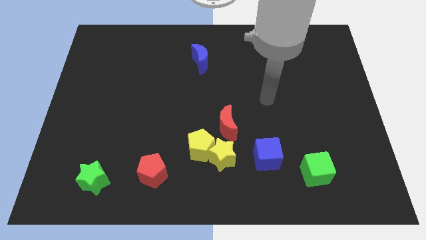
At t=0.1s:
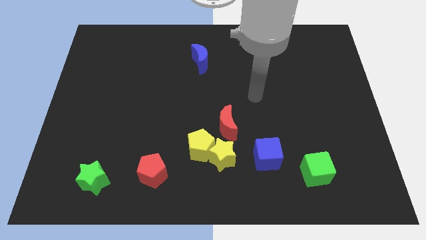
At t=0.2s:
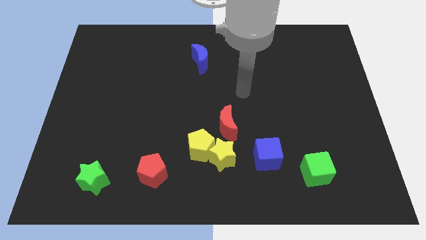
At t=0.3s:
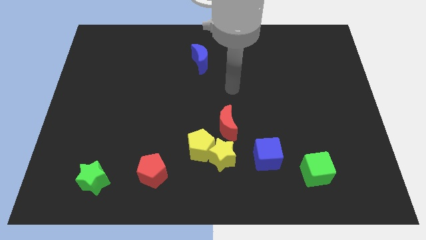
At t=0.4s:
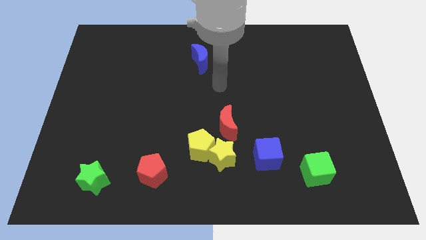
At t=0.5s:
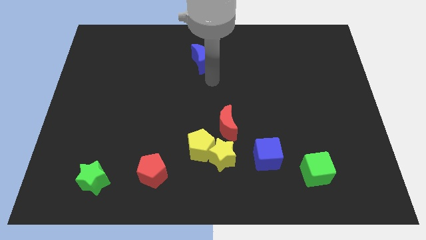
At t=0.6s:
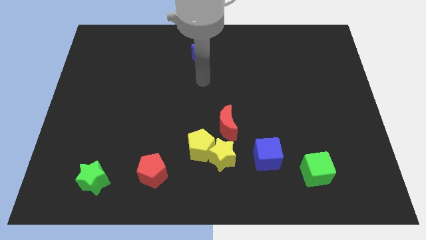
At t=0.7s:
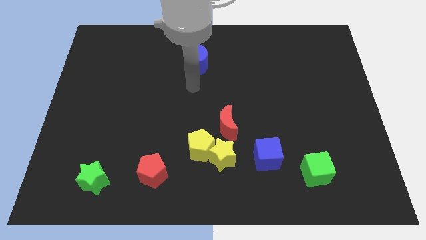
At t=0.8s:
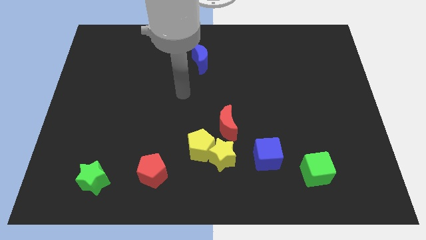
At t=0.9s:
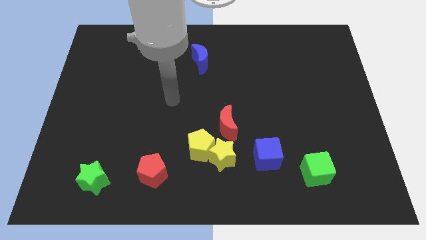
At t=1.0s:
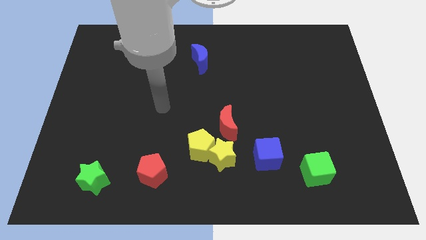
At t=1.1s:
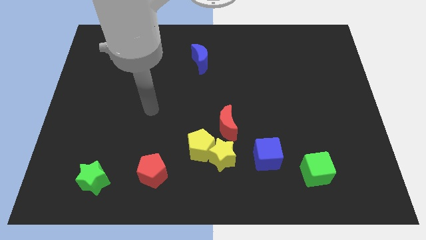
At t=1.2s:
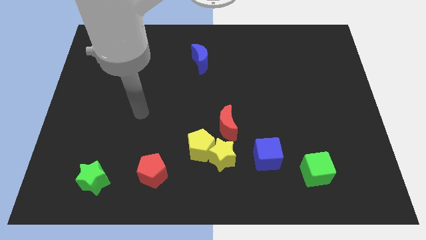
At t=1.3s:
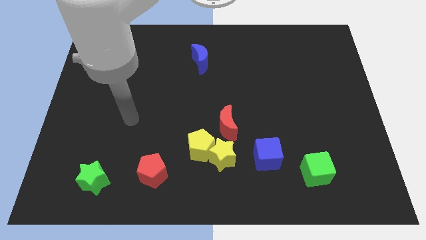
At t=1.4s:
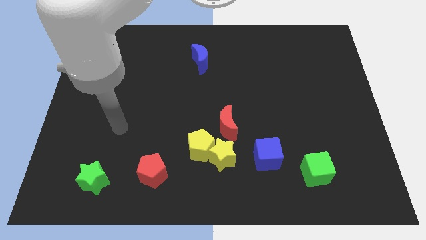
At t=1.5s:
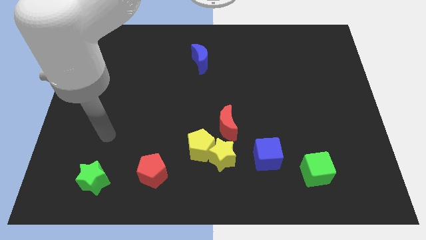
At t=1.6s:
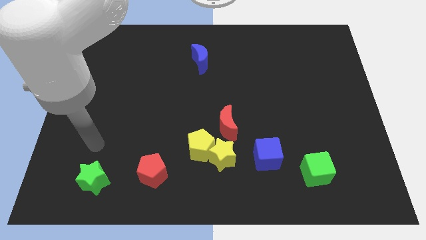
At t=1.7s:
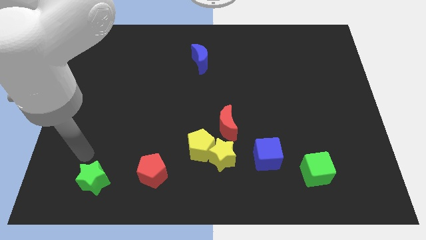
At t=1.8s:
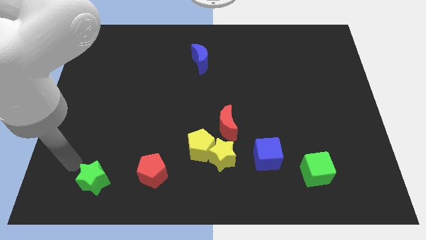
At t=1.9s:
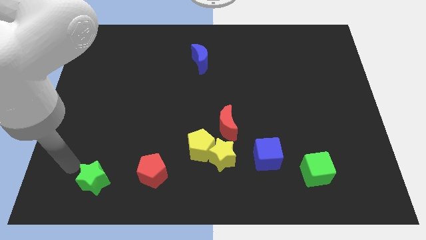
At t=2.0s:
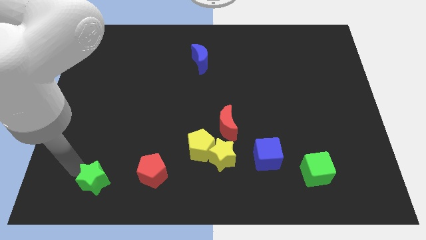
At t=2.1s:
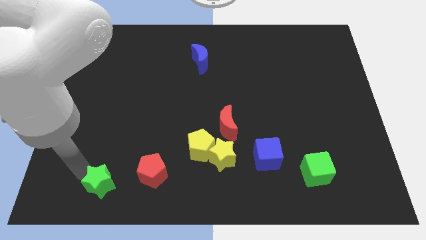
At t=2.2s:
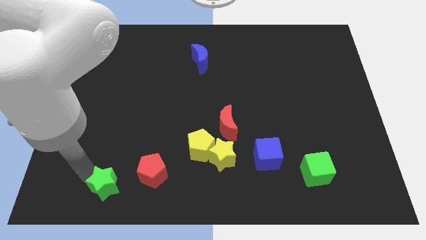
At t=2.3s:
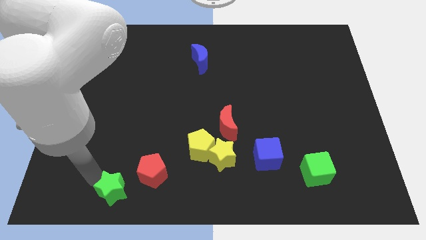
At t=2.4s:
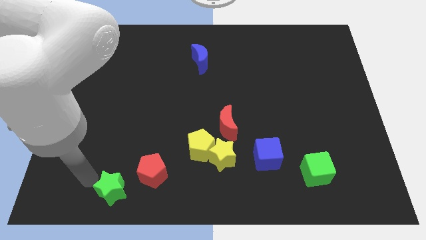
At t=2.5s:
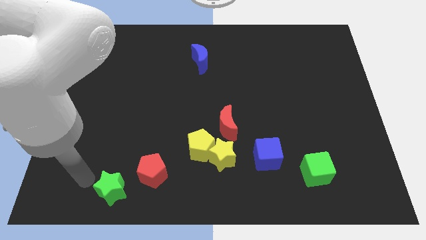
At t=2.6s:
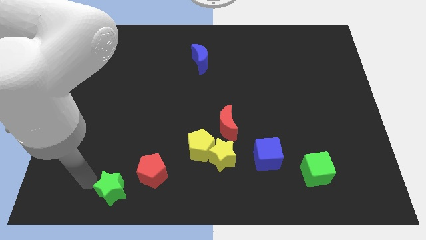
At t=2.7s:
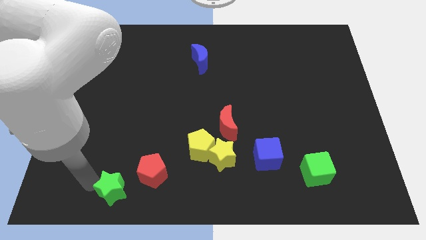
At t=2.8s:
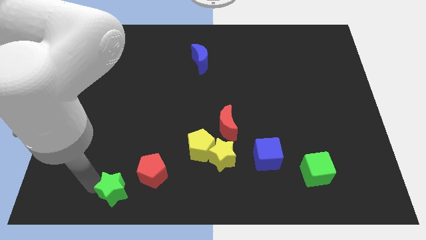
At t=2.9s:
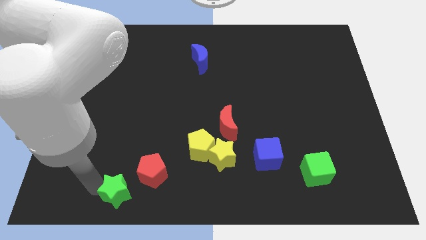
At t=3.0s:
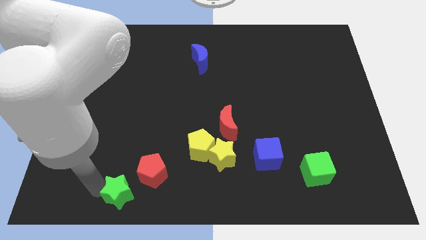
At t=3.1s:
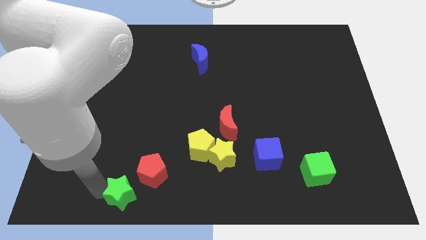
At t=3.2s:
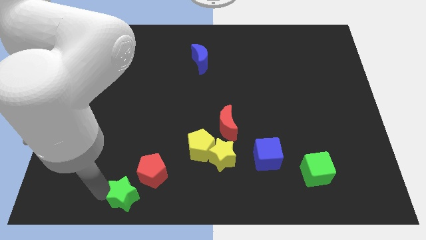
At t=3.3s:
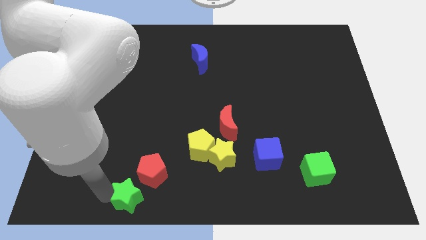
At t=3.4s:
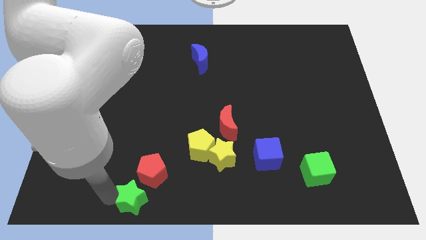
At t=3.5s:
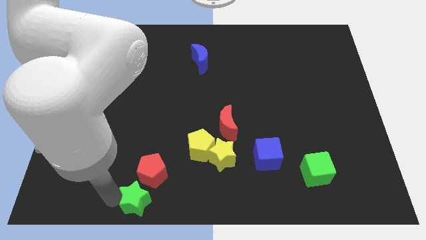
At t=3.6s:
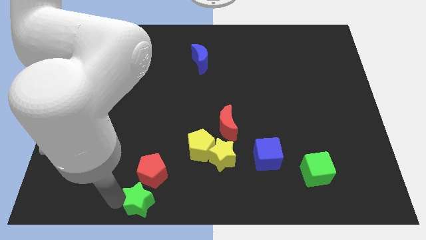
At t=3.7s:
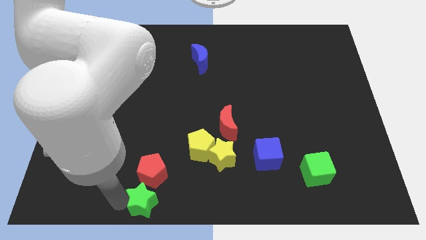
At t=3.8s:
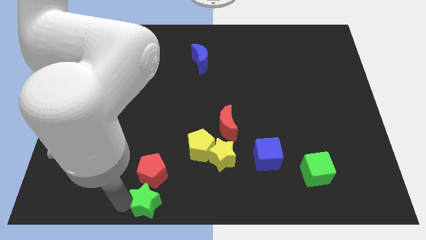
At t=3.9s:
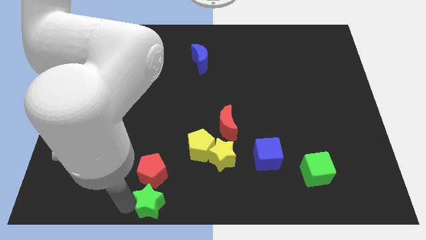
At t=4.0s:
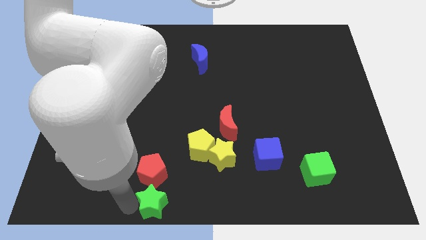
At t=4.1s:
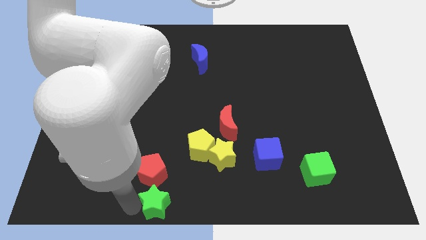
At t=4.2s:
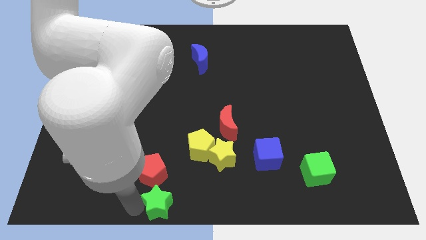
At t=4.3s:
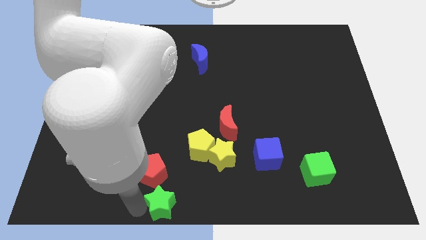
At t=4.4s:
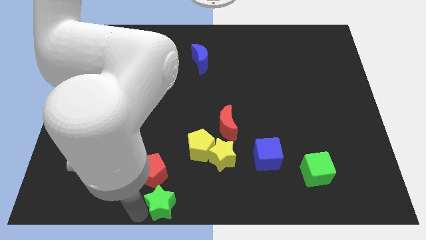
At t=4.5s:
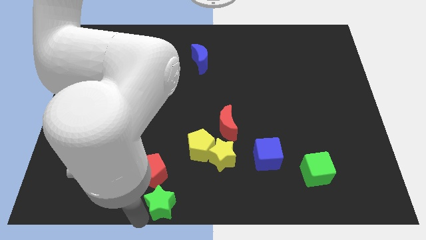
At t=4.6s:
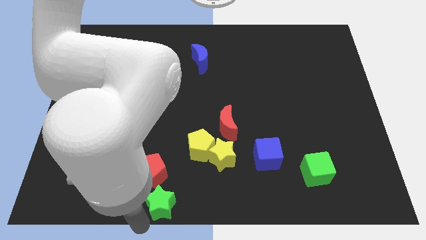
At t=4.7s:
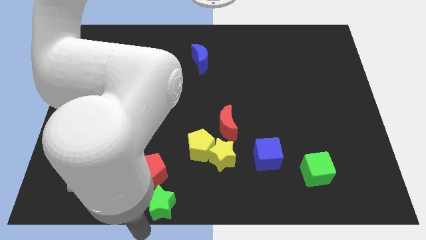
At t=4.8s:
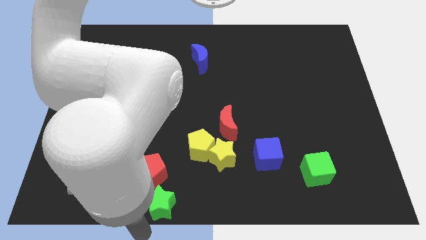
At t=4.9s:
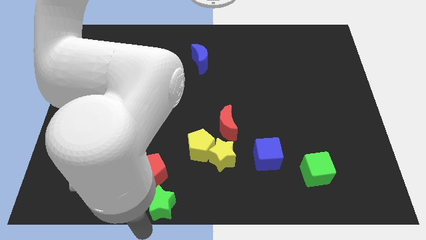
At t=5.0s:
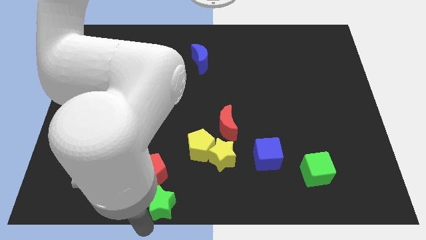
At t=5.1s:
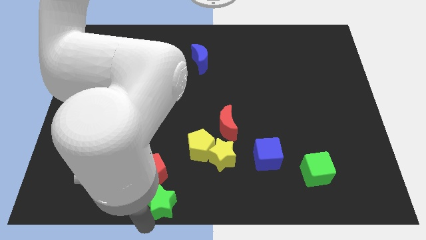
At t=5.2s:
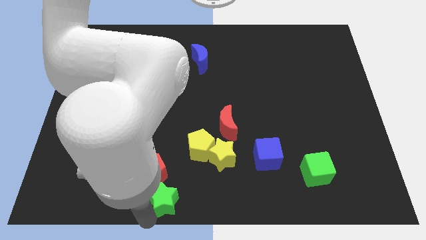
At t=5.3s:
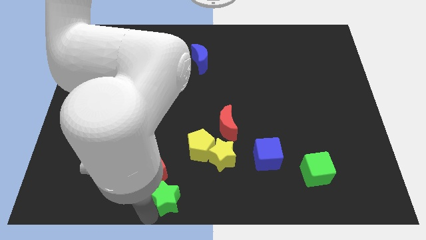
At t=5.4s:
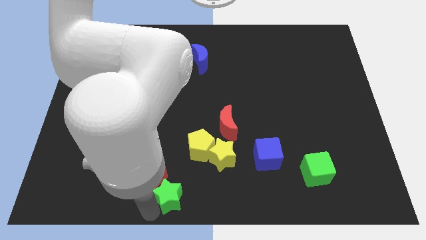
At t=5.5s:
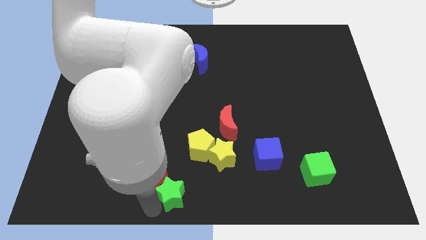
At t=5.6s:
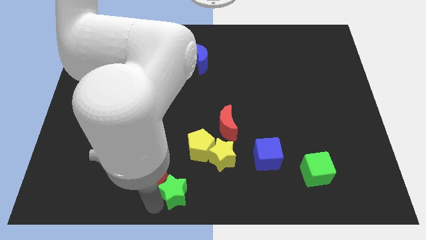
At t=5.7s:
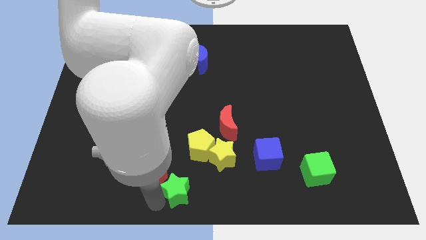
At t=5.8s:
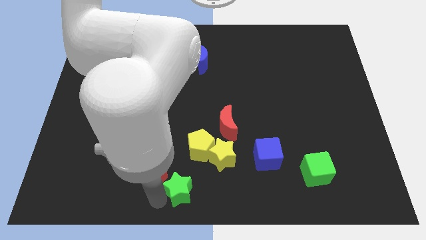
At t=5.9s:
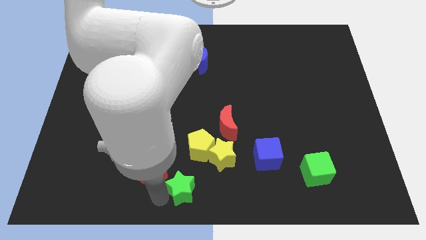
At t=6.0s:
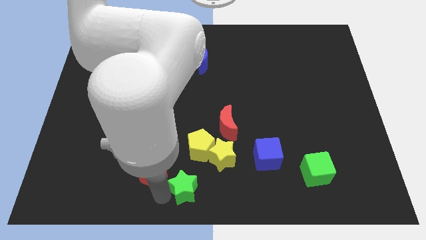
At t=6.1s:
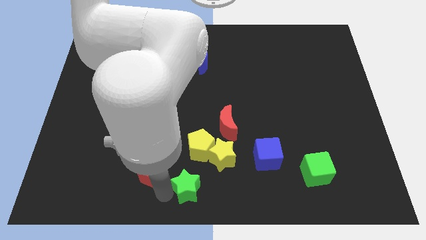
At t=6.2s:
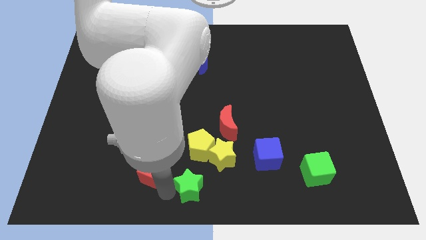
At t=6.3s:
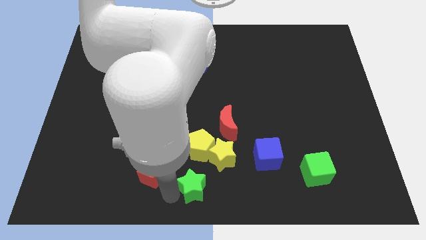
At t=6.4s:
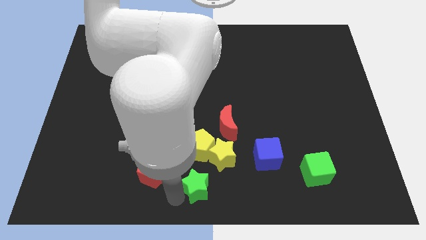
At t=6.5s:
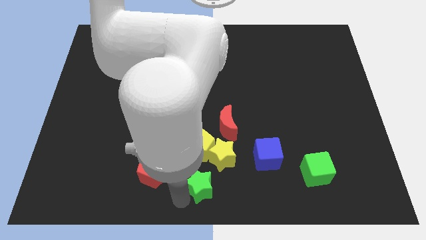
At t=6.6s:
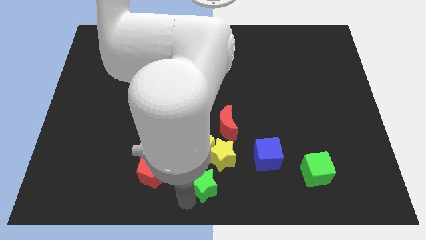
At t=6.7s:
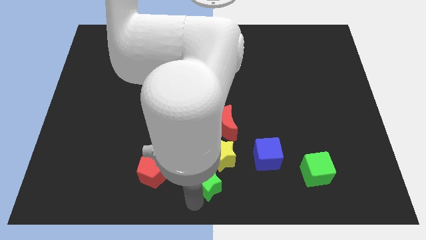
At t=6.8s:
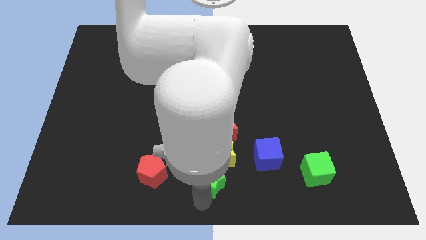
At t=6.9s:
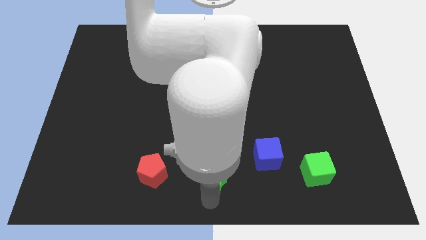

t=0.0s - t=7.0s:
slide the green star to the yellow star

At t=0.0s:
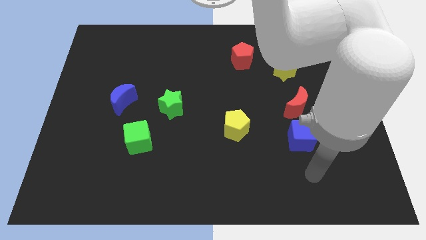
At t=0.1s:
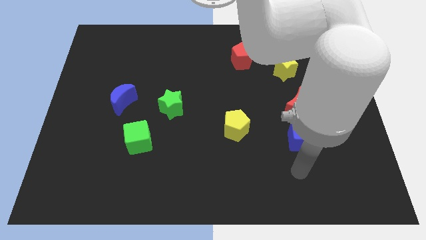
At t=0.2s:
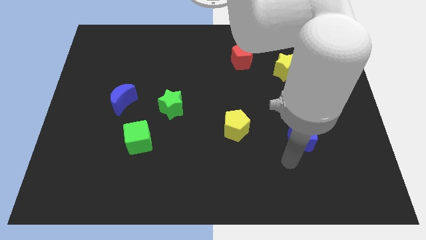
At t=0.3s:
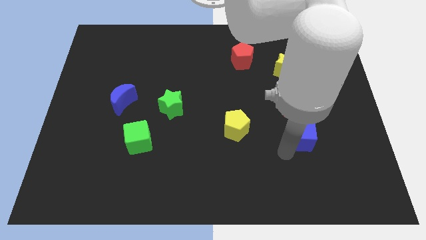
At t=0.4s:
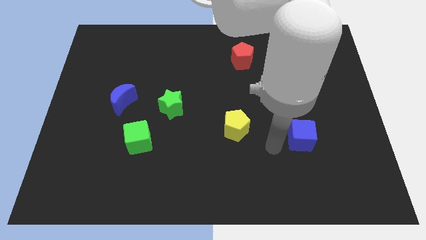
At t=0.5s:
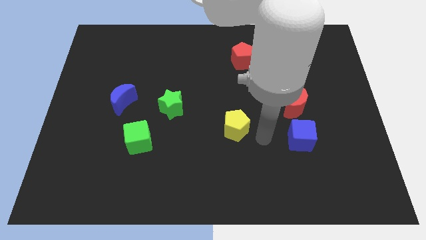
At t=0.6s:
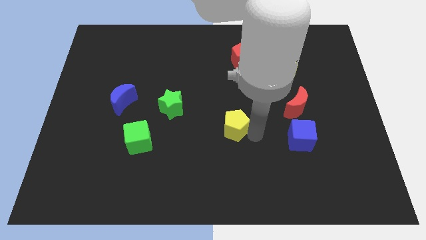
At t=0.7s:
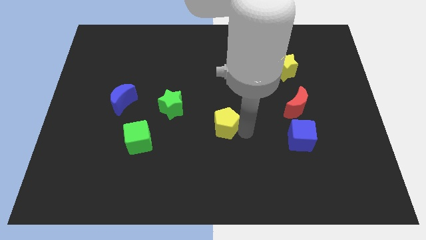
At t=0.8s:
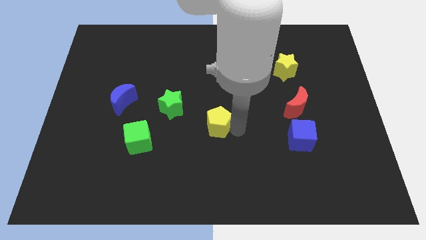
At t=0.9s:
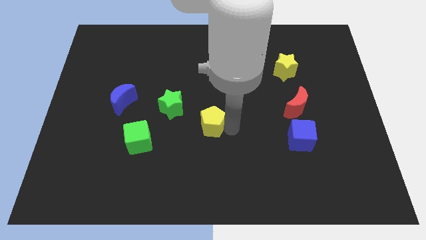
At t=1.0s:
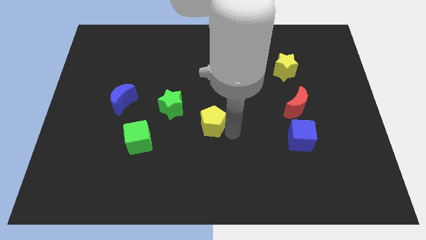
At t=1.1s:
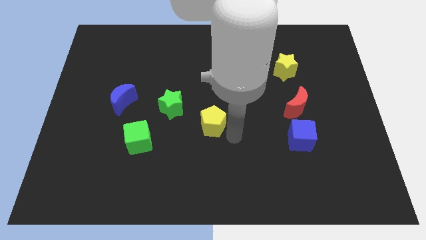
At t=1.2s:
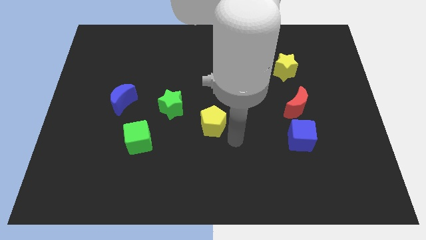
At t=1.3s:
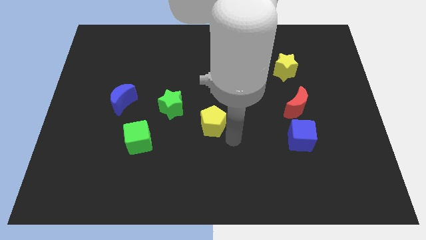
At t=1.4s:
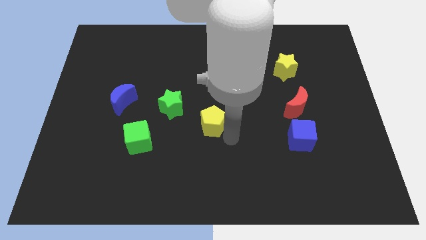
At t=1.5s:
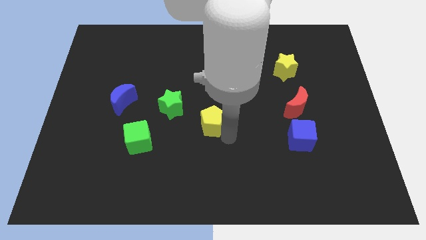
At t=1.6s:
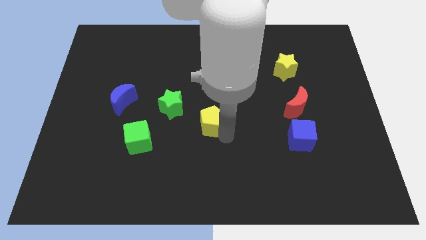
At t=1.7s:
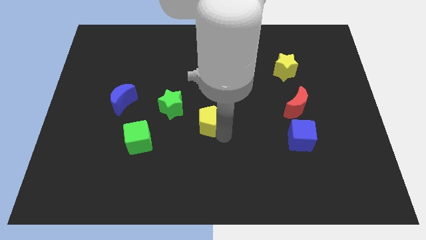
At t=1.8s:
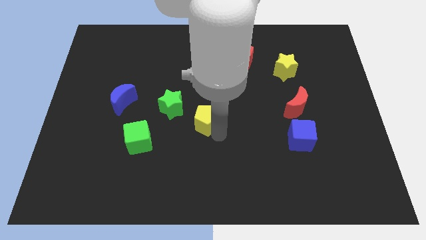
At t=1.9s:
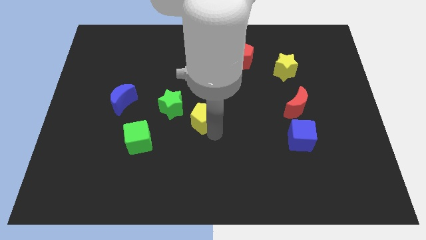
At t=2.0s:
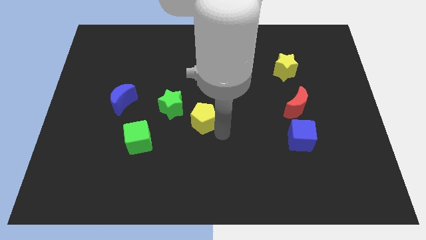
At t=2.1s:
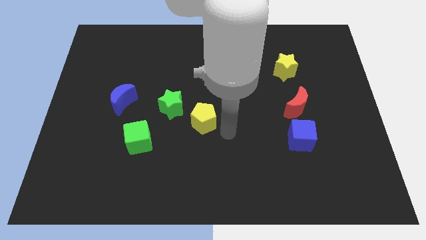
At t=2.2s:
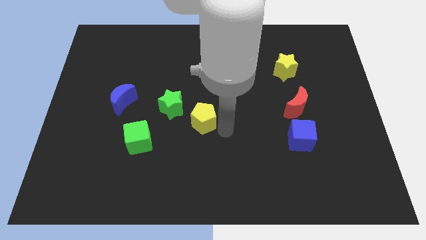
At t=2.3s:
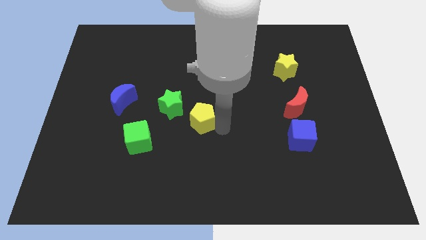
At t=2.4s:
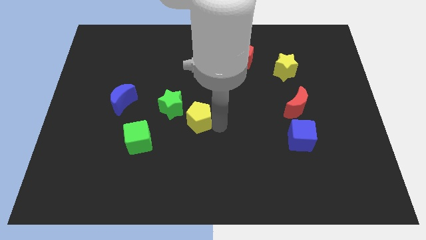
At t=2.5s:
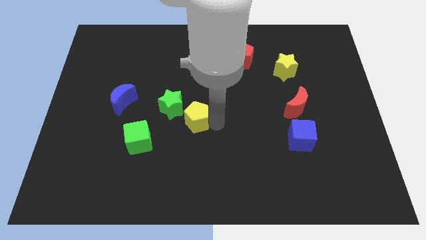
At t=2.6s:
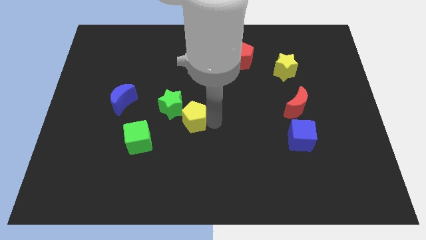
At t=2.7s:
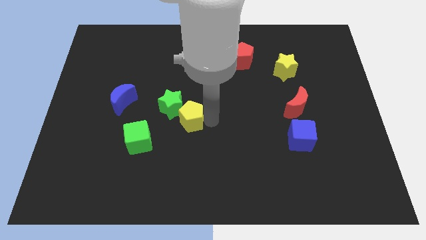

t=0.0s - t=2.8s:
slide the yellow pentagon next to the green star
